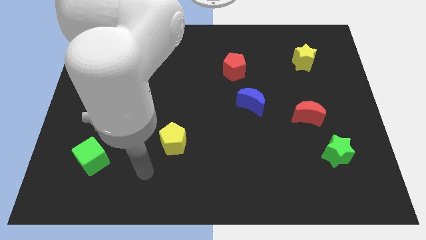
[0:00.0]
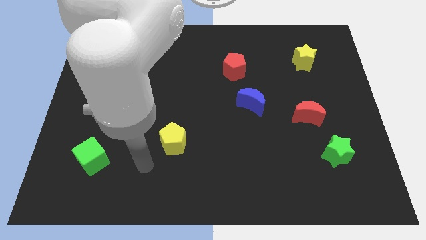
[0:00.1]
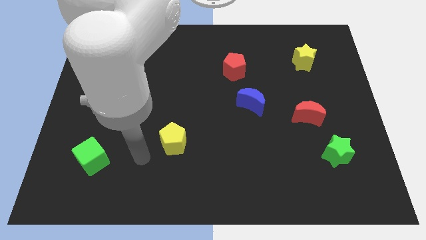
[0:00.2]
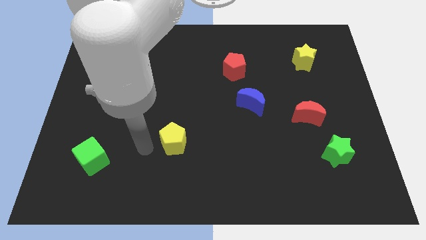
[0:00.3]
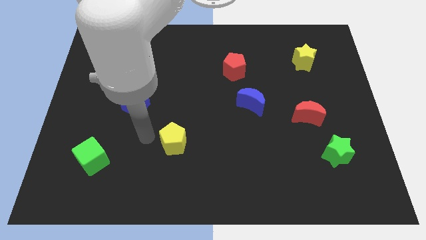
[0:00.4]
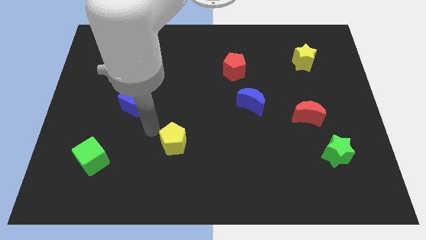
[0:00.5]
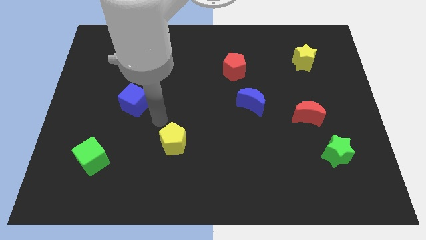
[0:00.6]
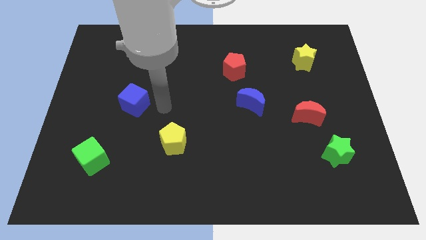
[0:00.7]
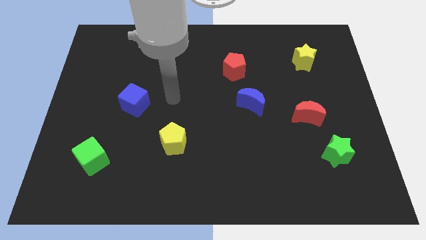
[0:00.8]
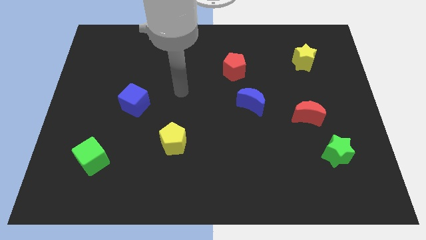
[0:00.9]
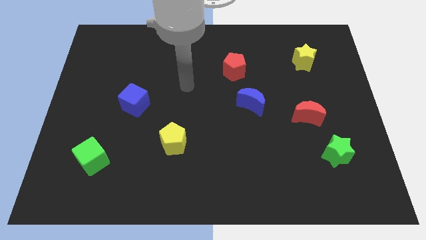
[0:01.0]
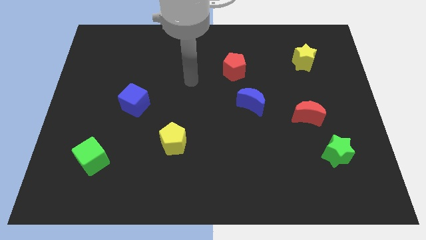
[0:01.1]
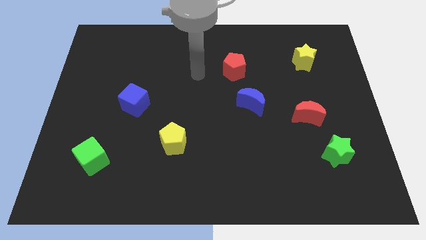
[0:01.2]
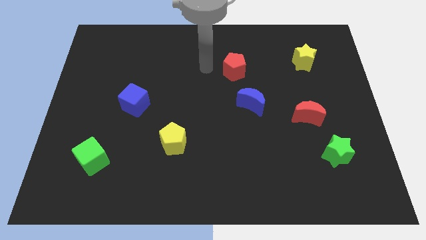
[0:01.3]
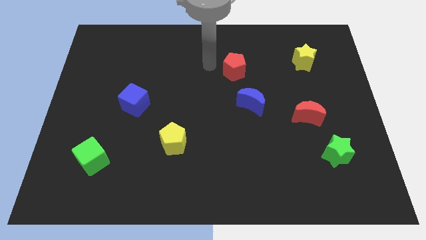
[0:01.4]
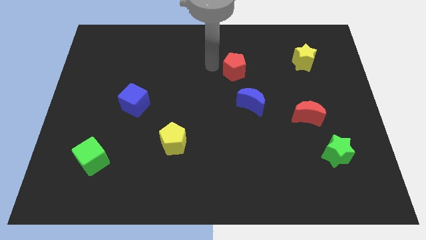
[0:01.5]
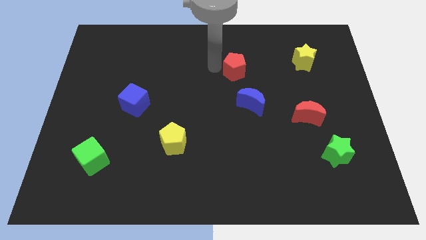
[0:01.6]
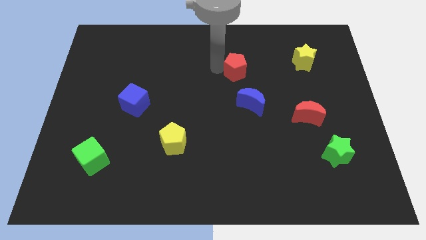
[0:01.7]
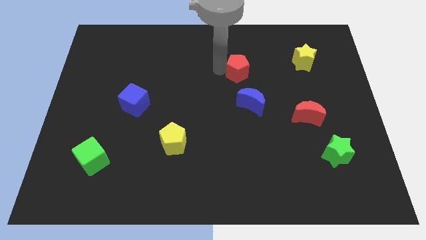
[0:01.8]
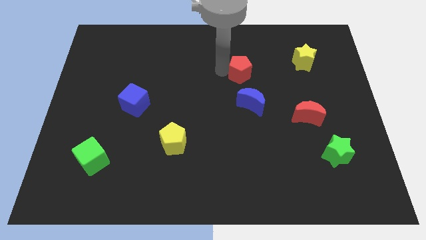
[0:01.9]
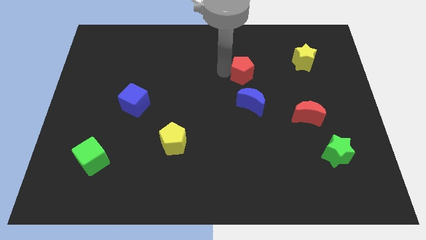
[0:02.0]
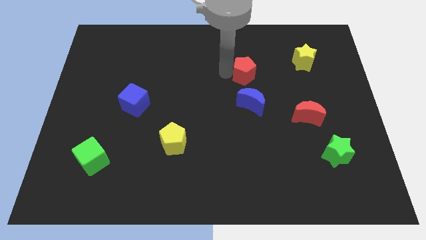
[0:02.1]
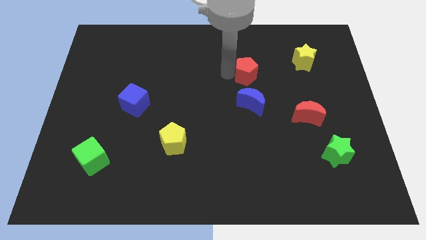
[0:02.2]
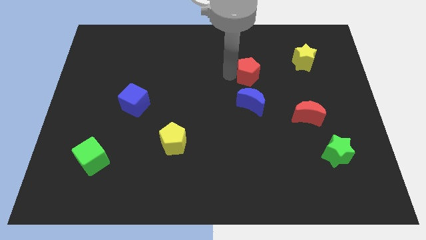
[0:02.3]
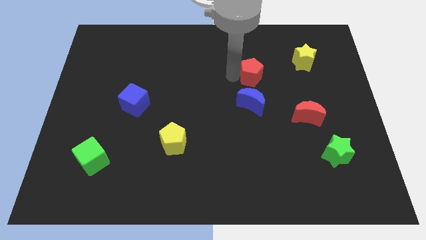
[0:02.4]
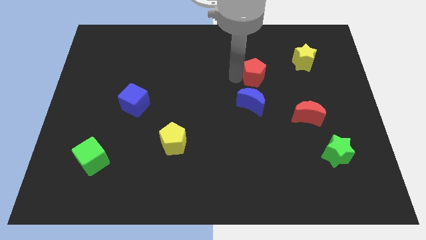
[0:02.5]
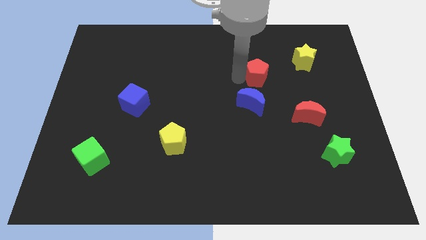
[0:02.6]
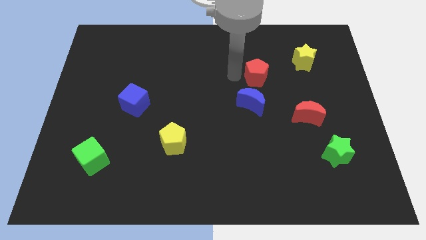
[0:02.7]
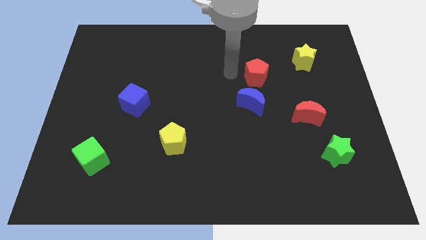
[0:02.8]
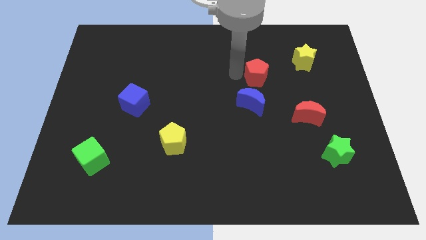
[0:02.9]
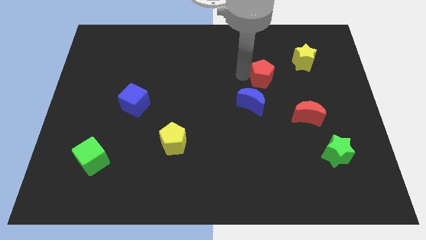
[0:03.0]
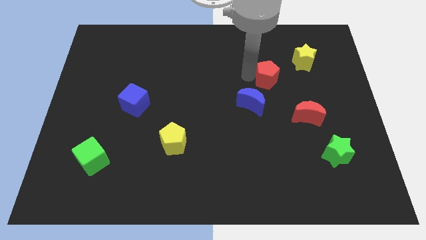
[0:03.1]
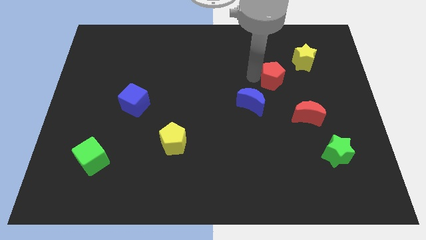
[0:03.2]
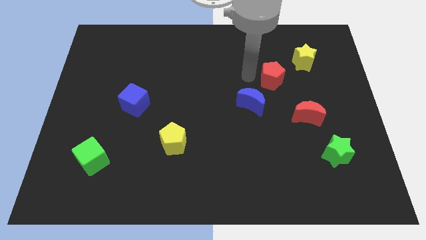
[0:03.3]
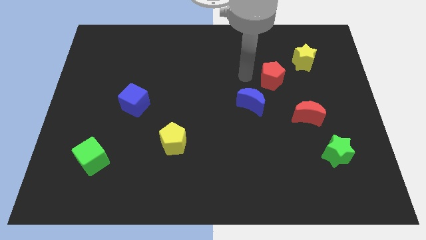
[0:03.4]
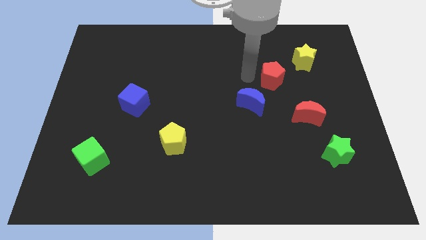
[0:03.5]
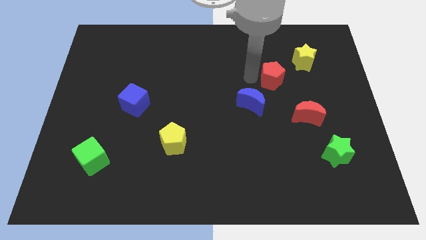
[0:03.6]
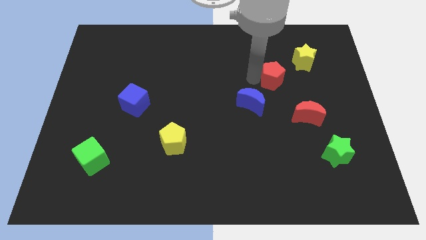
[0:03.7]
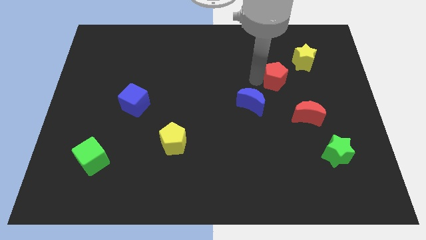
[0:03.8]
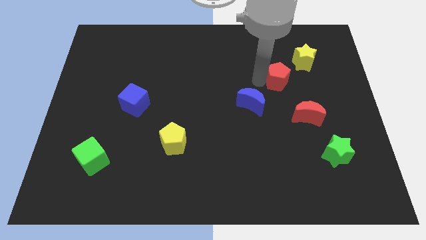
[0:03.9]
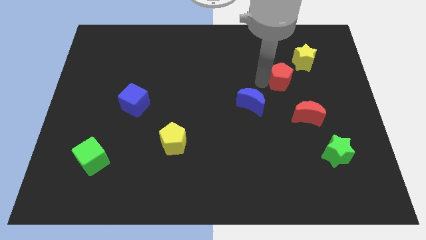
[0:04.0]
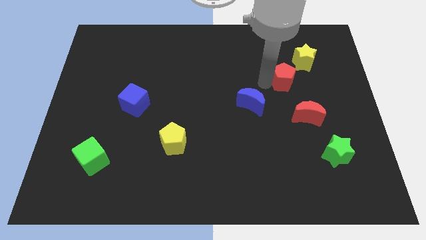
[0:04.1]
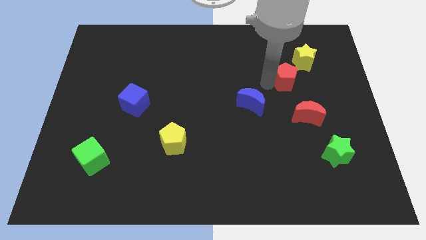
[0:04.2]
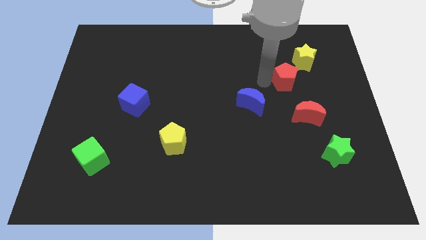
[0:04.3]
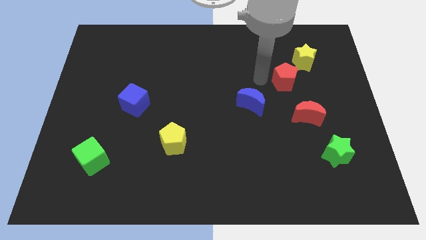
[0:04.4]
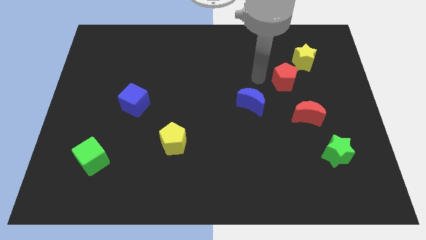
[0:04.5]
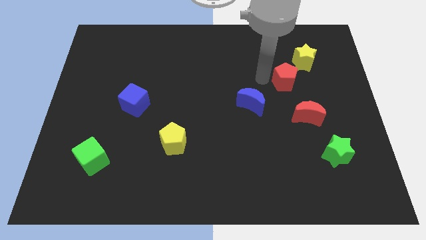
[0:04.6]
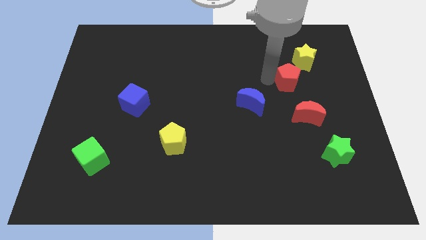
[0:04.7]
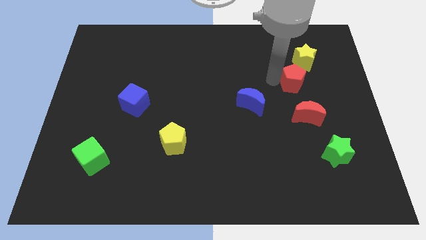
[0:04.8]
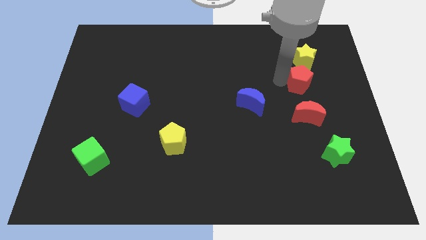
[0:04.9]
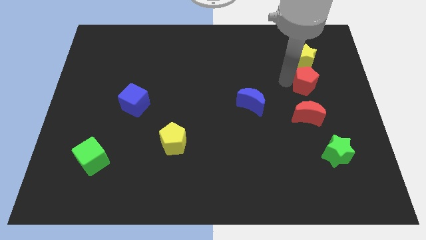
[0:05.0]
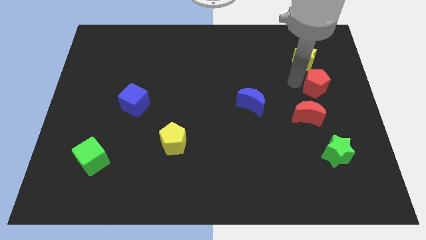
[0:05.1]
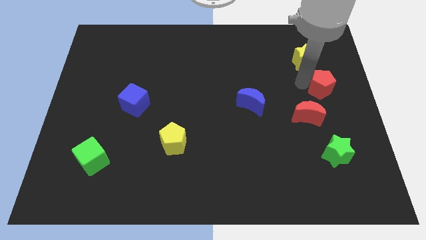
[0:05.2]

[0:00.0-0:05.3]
push the red pentagon to the right side of the board

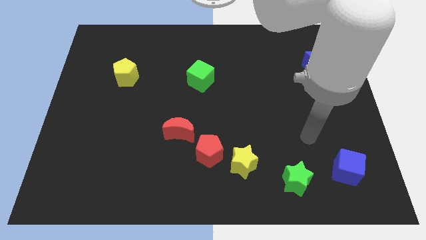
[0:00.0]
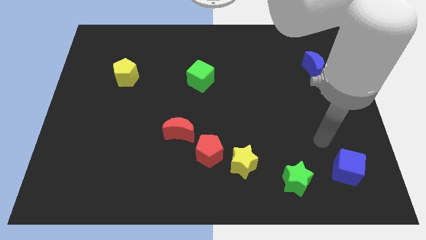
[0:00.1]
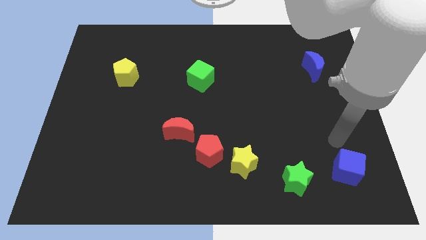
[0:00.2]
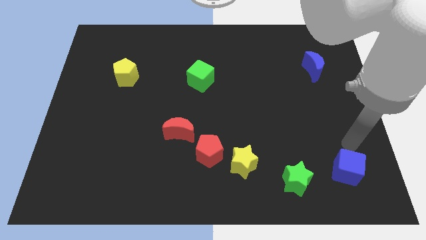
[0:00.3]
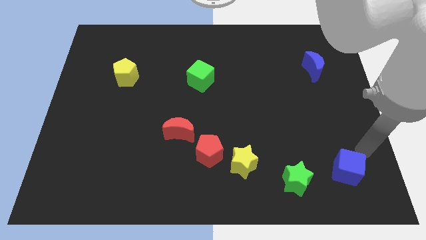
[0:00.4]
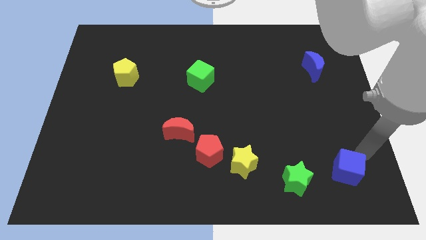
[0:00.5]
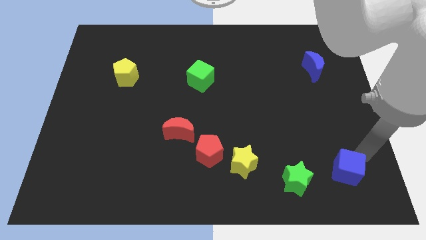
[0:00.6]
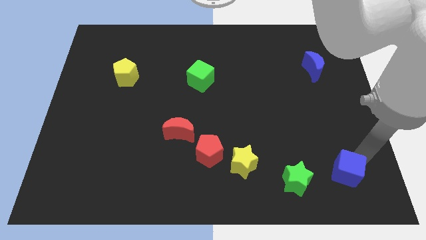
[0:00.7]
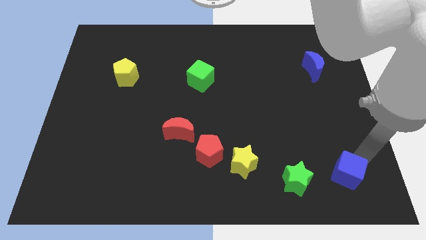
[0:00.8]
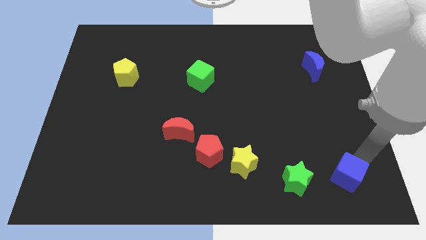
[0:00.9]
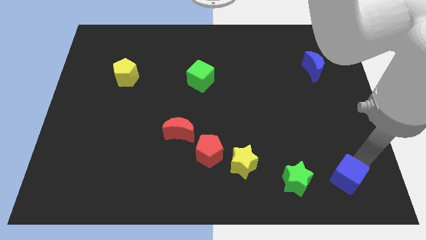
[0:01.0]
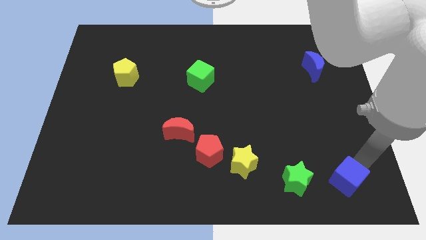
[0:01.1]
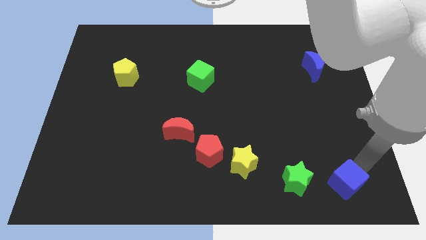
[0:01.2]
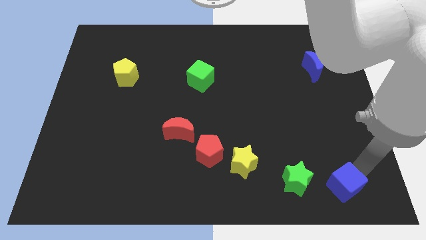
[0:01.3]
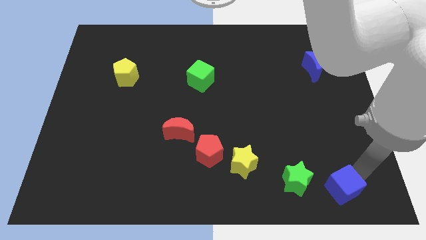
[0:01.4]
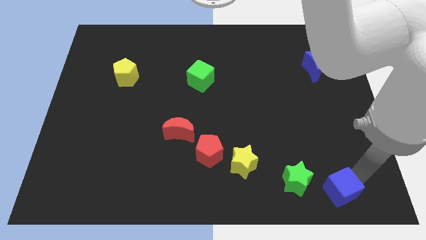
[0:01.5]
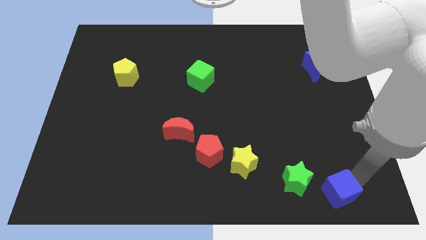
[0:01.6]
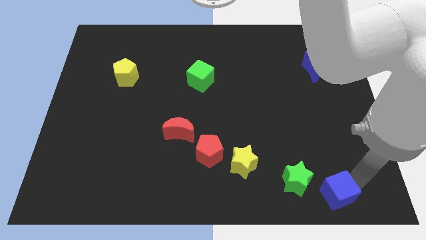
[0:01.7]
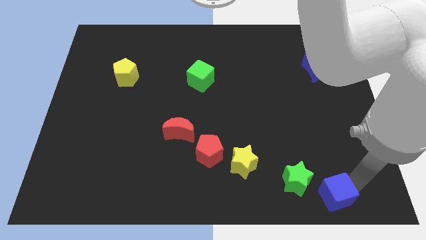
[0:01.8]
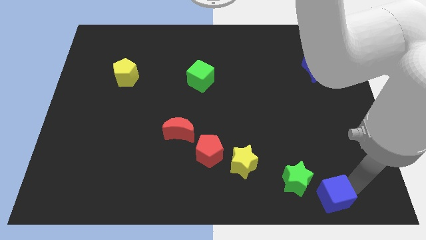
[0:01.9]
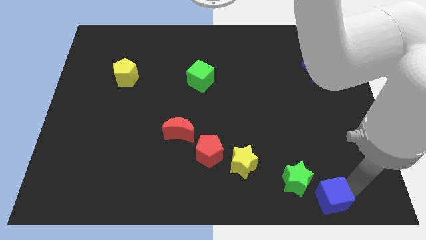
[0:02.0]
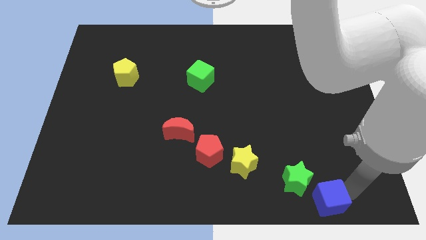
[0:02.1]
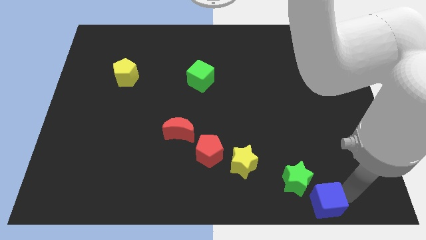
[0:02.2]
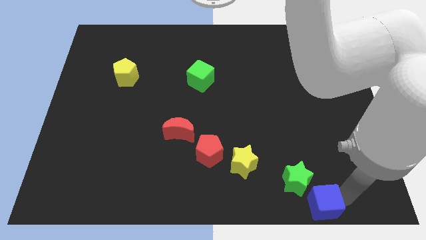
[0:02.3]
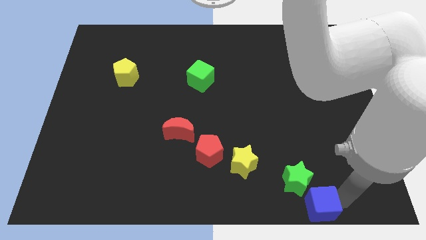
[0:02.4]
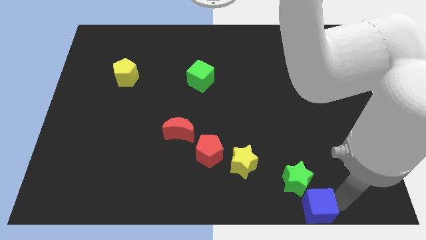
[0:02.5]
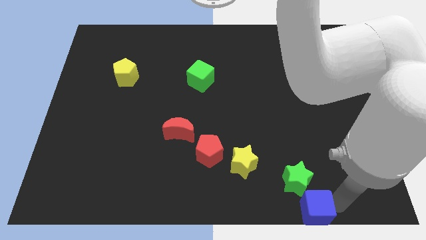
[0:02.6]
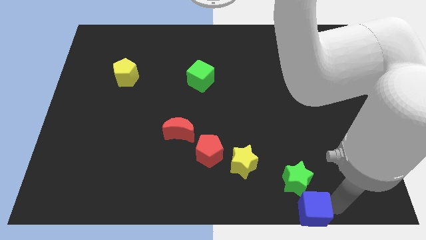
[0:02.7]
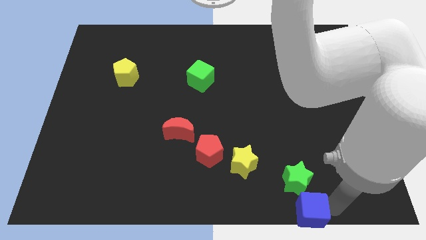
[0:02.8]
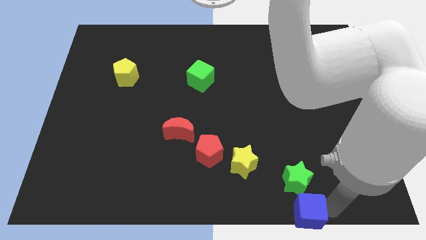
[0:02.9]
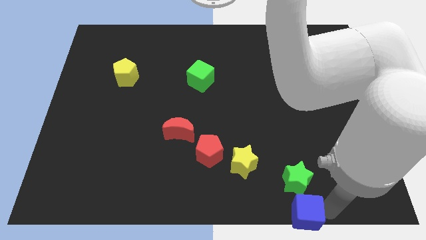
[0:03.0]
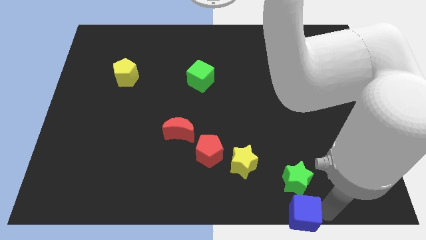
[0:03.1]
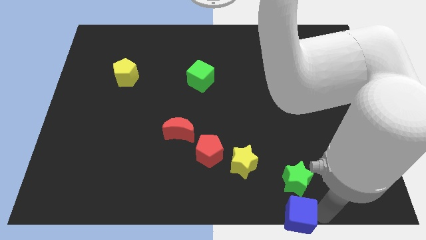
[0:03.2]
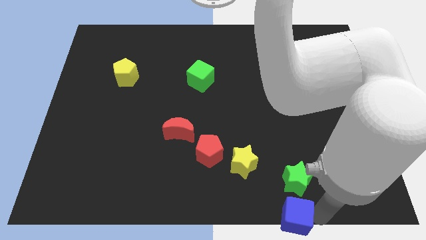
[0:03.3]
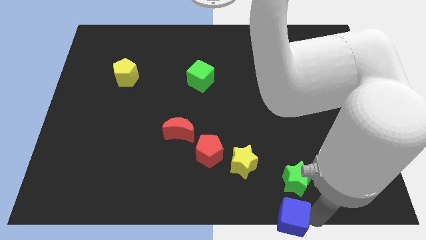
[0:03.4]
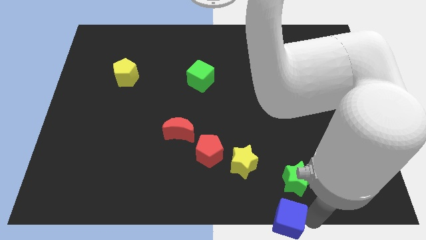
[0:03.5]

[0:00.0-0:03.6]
move the blue cube to the bottom
